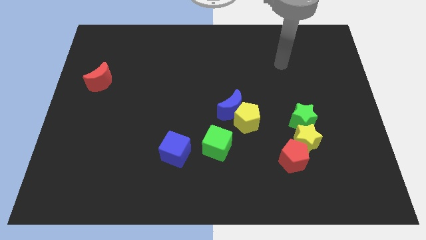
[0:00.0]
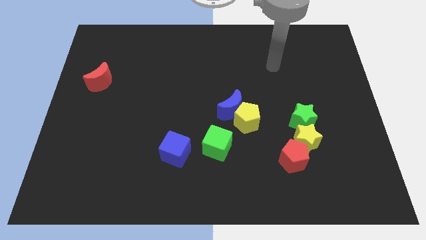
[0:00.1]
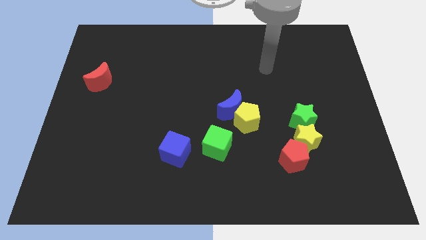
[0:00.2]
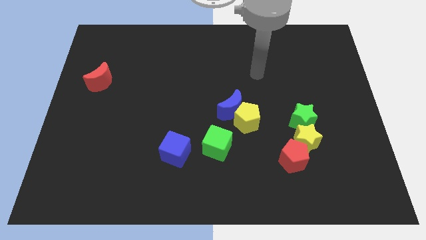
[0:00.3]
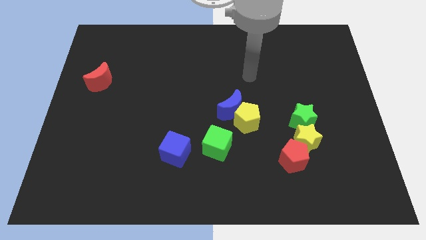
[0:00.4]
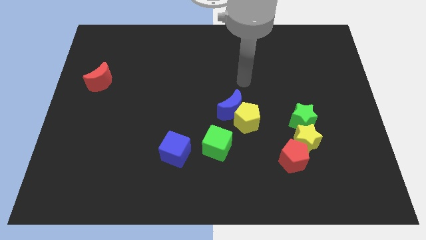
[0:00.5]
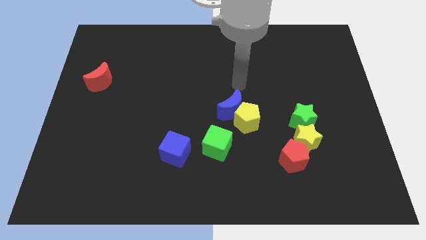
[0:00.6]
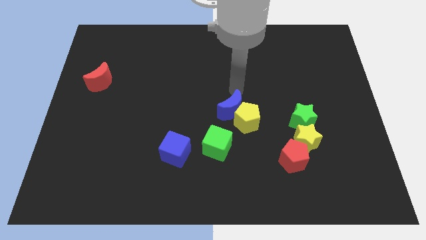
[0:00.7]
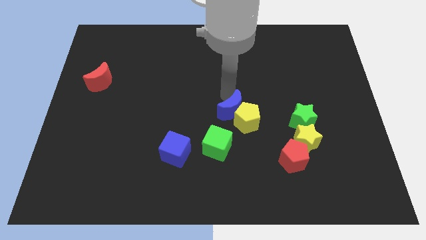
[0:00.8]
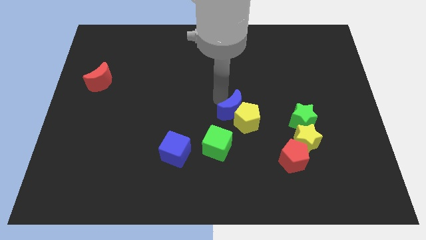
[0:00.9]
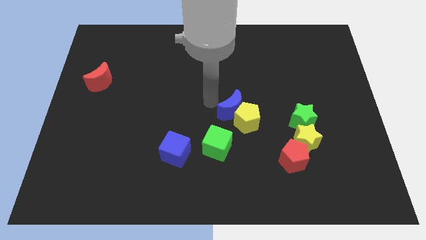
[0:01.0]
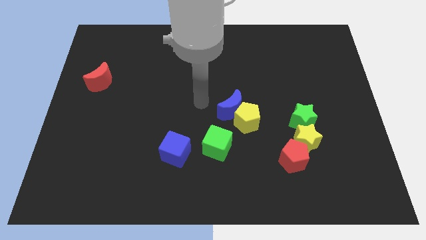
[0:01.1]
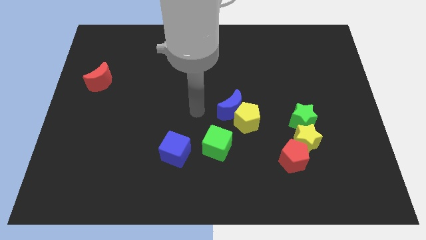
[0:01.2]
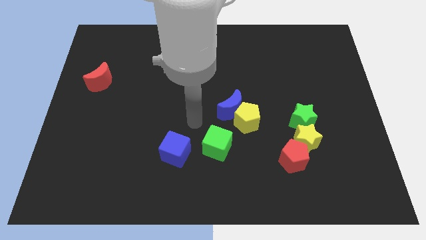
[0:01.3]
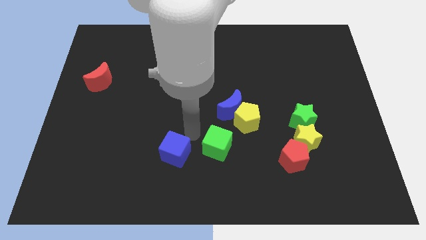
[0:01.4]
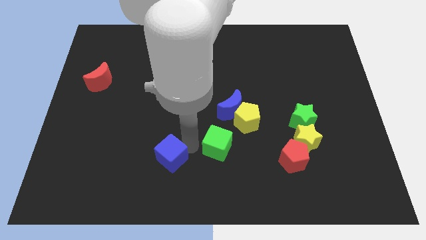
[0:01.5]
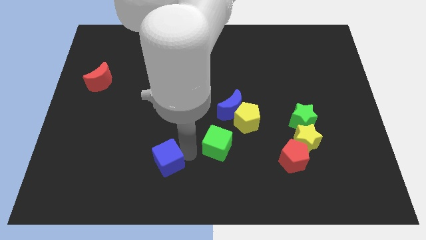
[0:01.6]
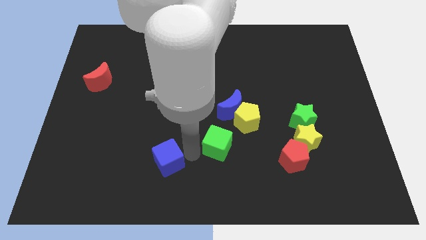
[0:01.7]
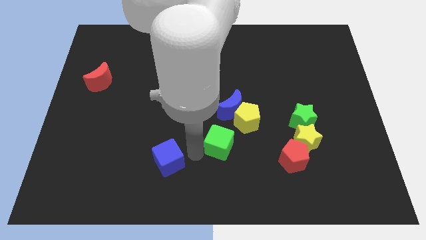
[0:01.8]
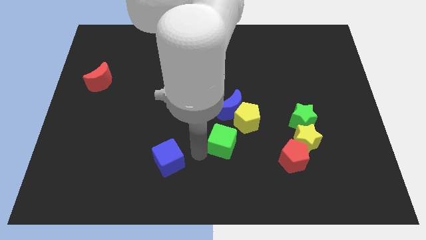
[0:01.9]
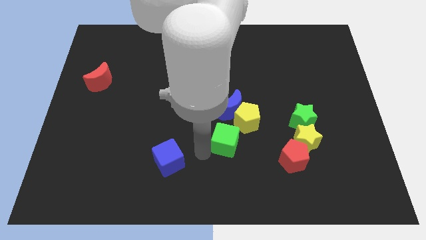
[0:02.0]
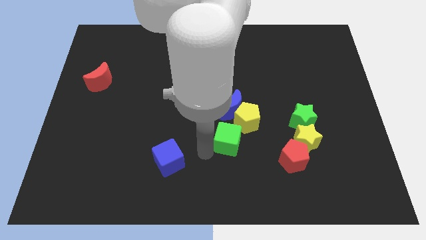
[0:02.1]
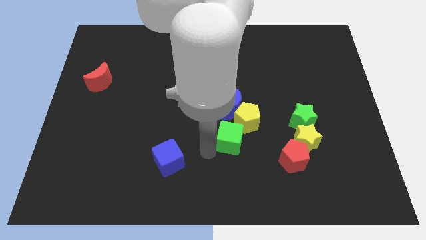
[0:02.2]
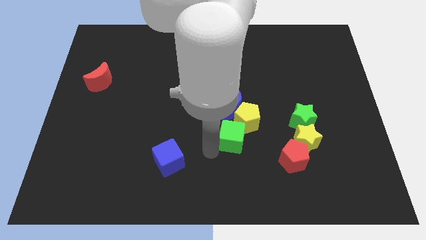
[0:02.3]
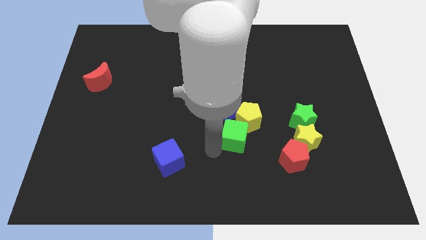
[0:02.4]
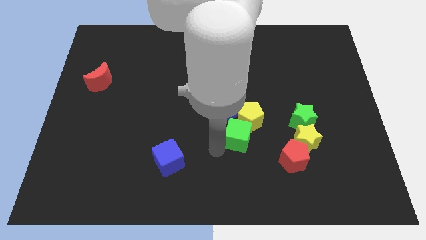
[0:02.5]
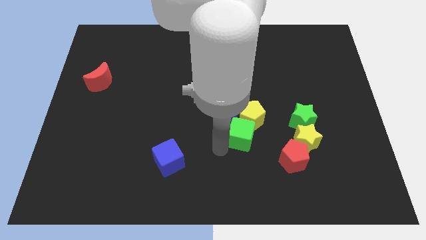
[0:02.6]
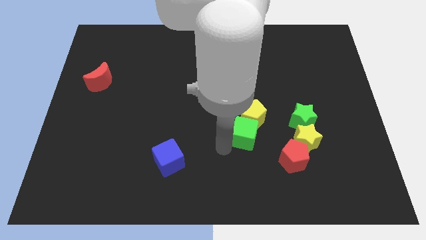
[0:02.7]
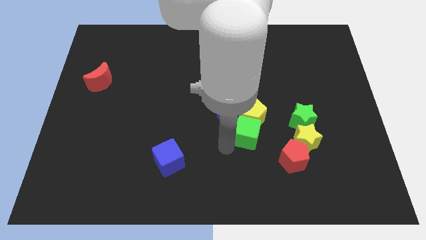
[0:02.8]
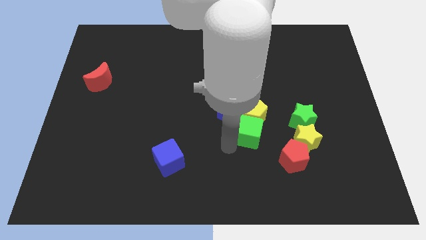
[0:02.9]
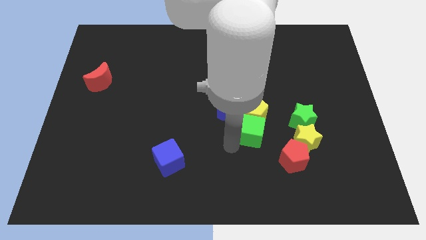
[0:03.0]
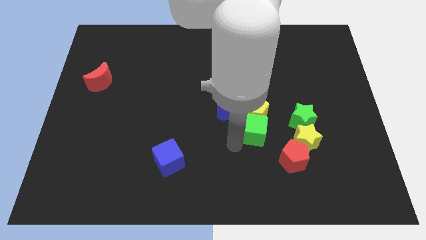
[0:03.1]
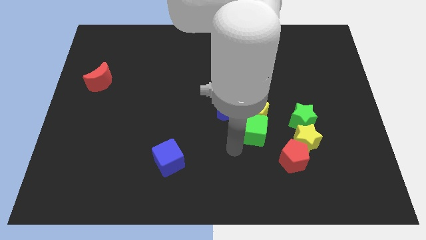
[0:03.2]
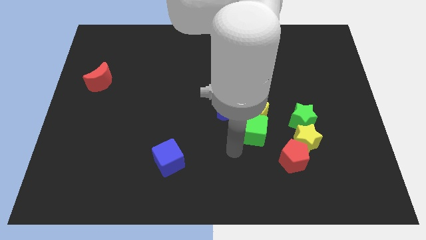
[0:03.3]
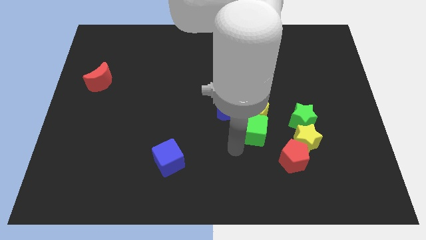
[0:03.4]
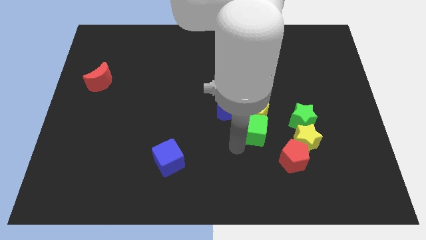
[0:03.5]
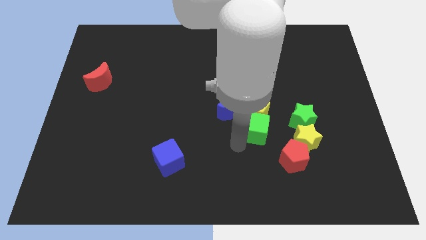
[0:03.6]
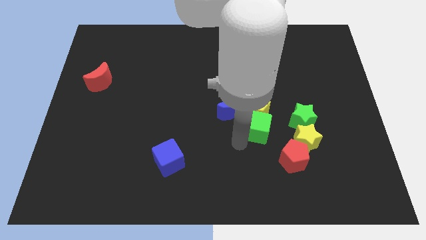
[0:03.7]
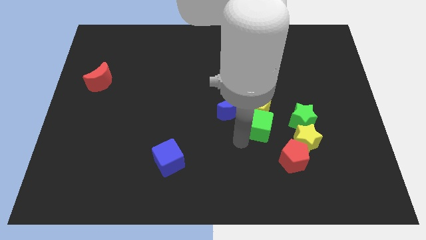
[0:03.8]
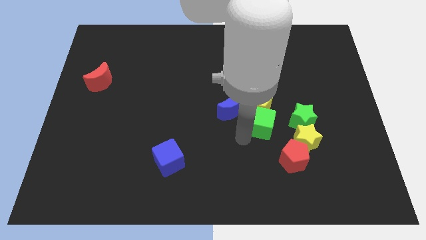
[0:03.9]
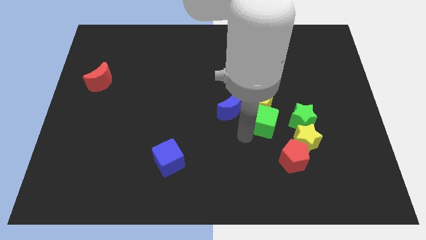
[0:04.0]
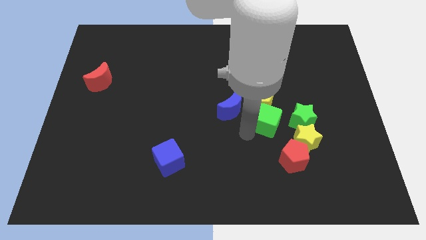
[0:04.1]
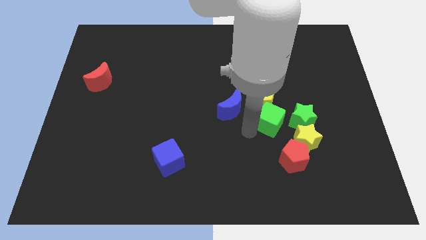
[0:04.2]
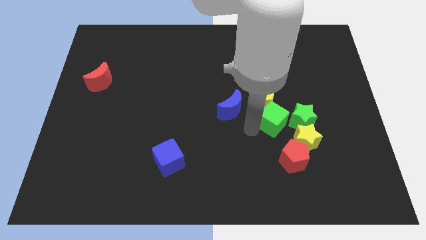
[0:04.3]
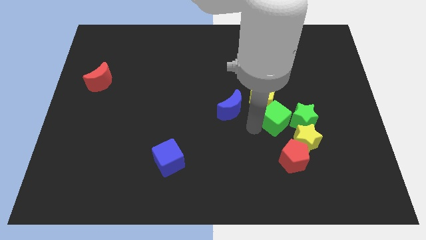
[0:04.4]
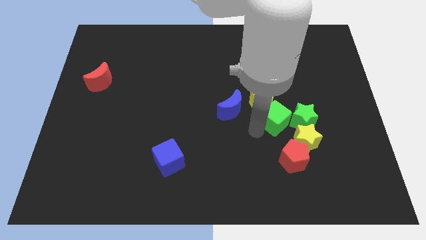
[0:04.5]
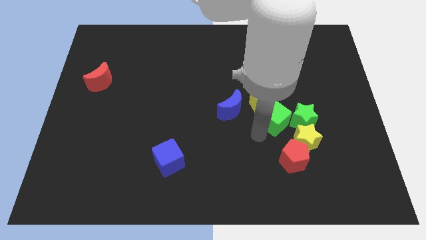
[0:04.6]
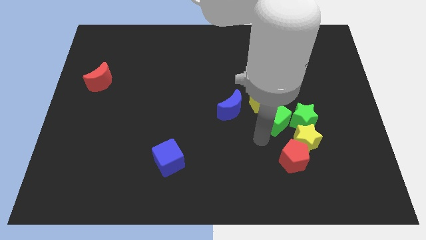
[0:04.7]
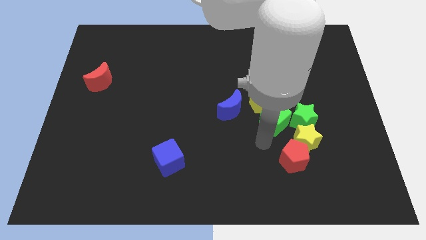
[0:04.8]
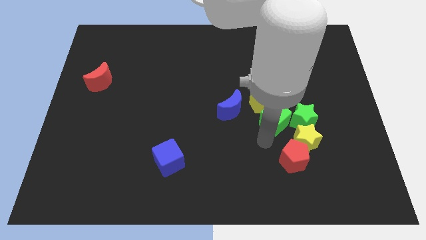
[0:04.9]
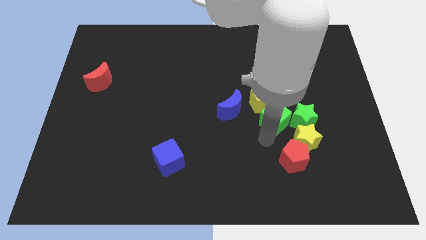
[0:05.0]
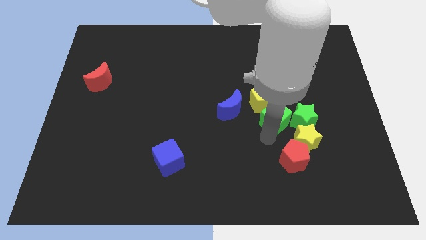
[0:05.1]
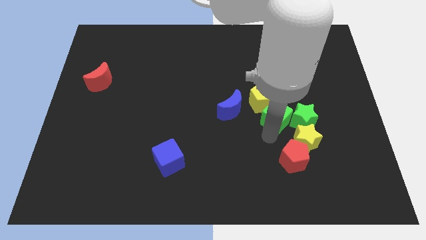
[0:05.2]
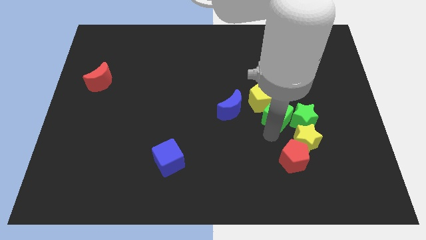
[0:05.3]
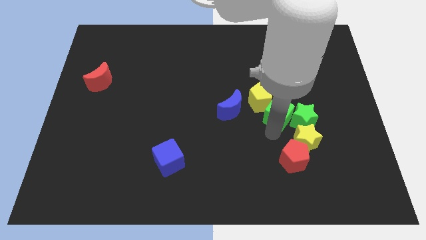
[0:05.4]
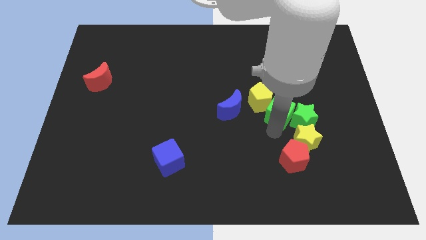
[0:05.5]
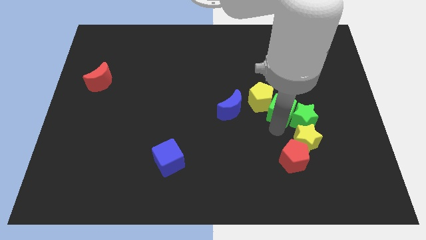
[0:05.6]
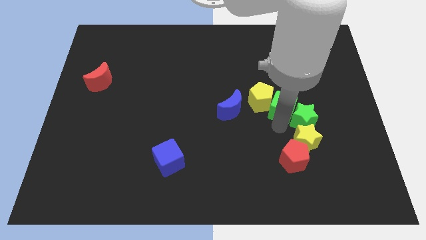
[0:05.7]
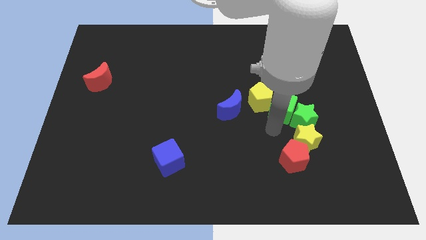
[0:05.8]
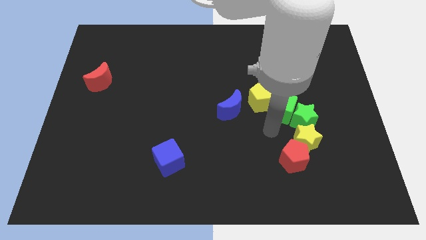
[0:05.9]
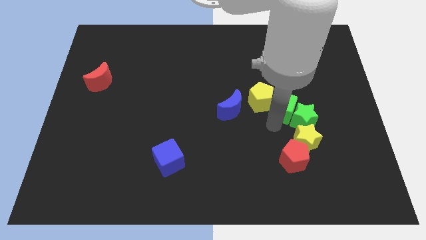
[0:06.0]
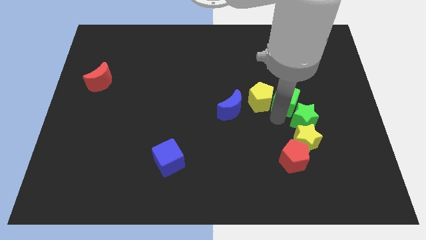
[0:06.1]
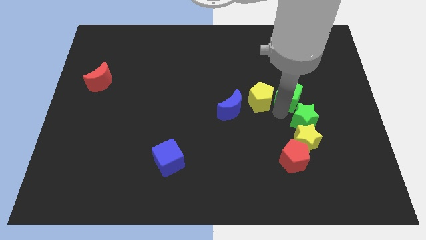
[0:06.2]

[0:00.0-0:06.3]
push the green cube upwards and to the right diagonally

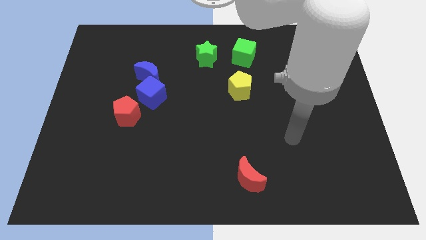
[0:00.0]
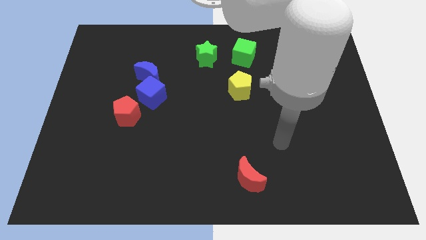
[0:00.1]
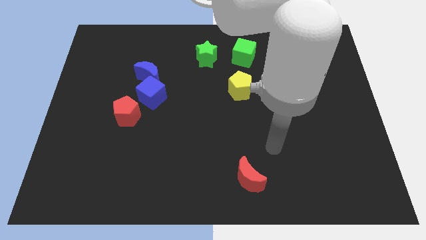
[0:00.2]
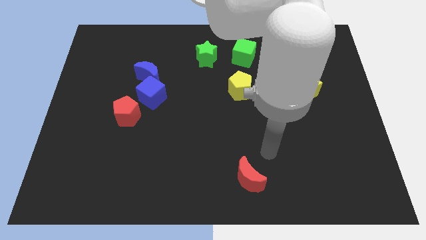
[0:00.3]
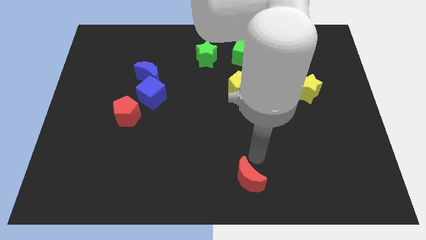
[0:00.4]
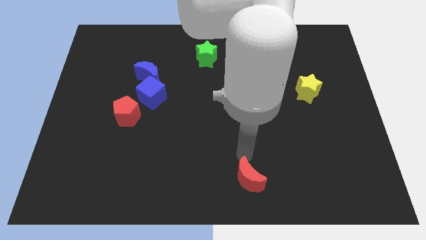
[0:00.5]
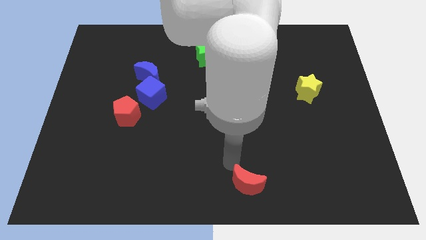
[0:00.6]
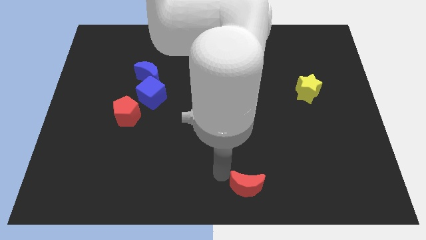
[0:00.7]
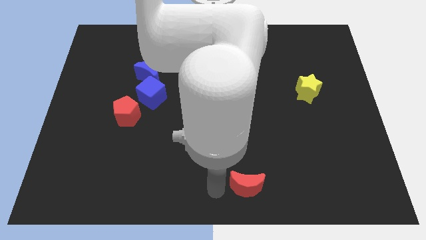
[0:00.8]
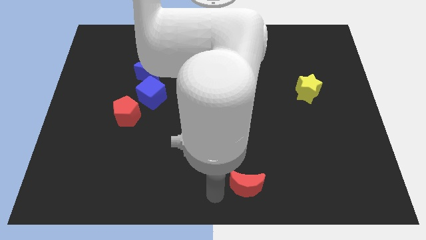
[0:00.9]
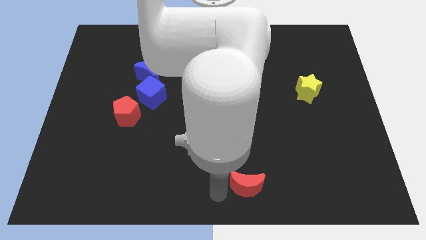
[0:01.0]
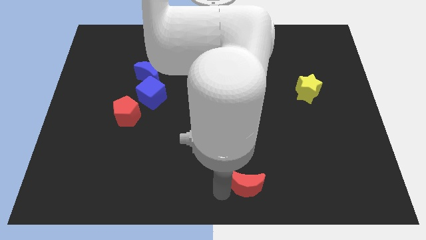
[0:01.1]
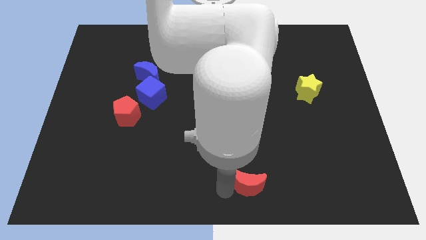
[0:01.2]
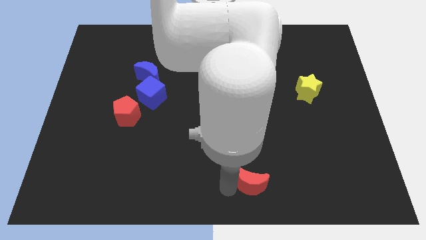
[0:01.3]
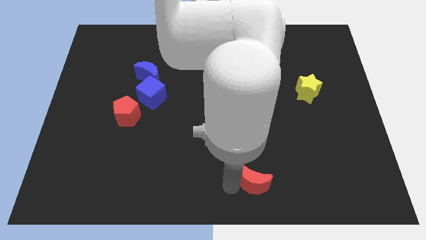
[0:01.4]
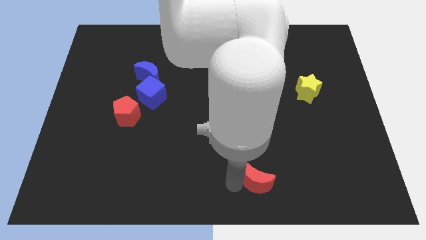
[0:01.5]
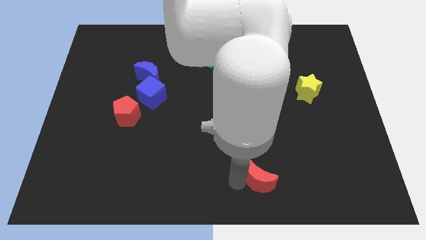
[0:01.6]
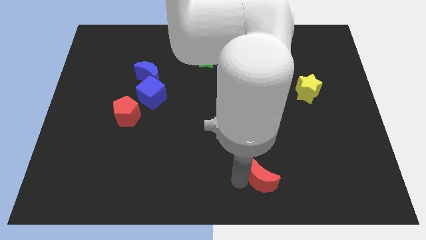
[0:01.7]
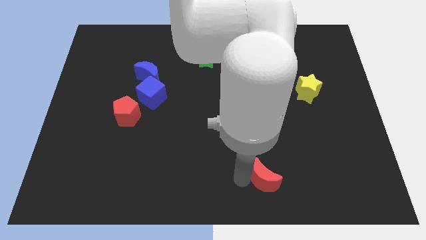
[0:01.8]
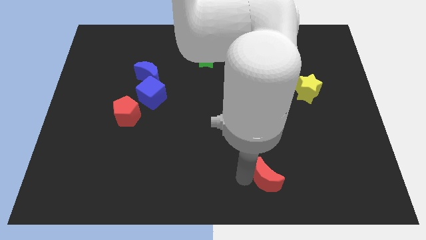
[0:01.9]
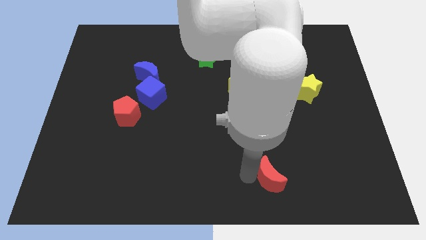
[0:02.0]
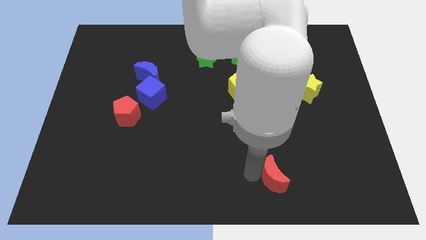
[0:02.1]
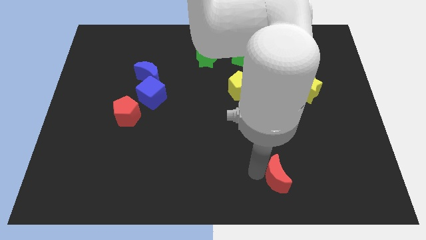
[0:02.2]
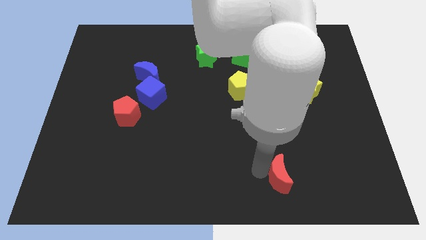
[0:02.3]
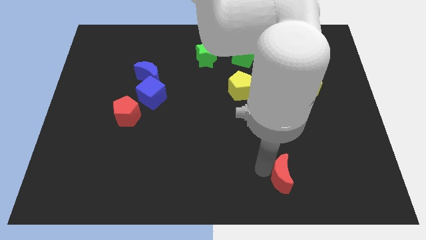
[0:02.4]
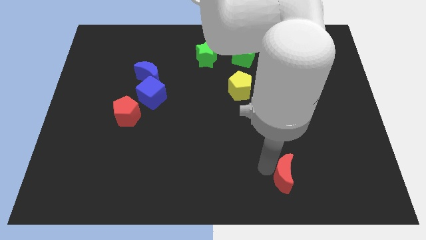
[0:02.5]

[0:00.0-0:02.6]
slightly push the red moon right
